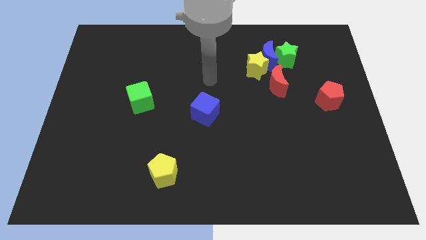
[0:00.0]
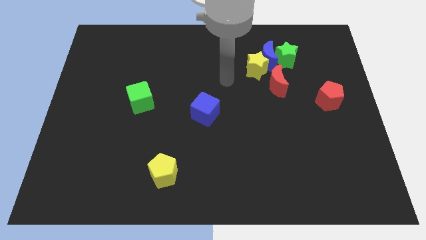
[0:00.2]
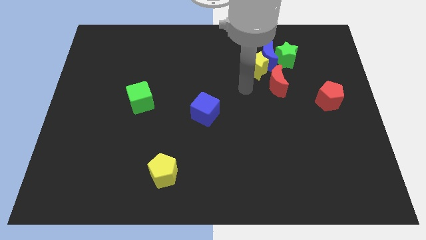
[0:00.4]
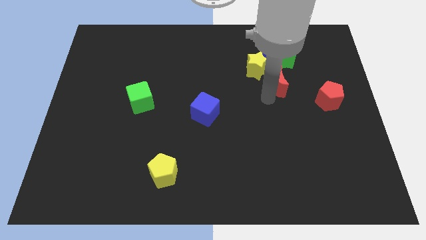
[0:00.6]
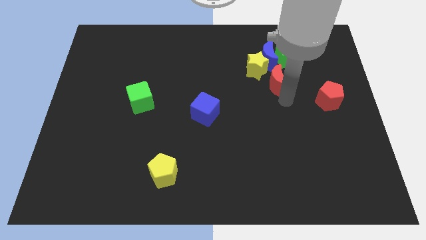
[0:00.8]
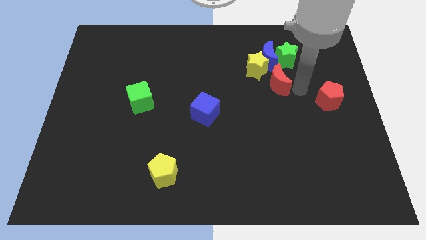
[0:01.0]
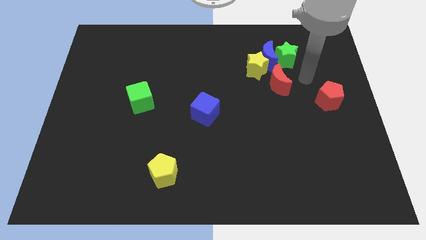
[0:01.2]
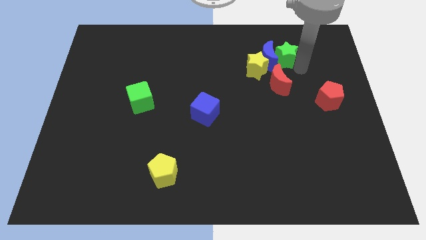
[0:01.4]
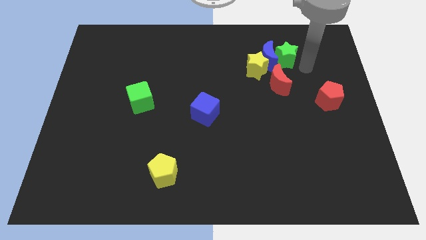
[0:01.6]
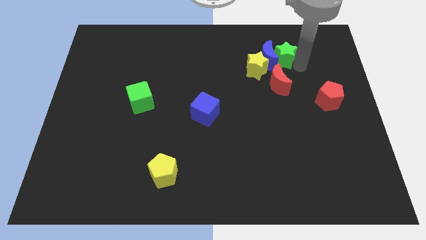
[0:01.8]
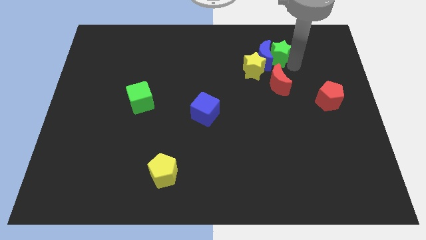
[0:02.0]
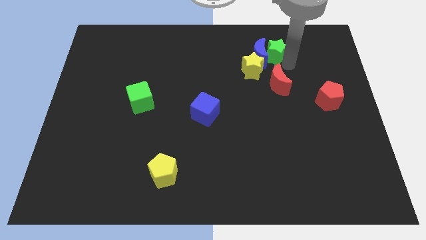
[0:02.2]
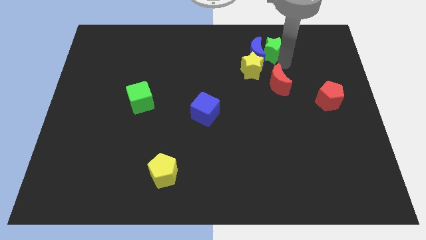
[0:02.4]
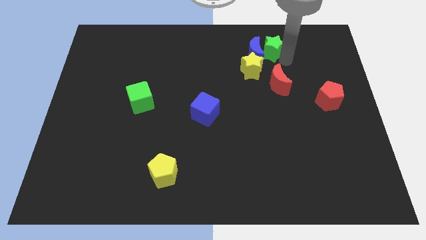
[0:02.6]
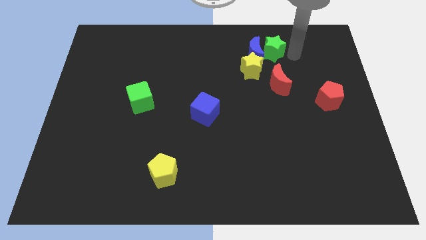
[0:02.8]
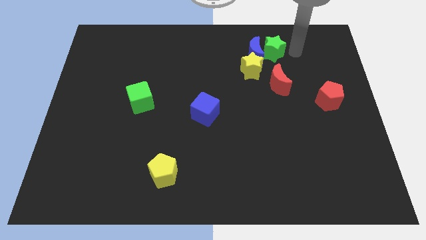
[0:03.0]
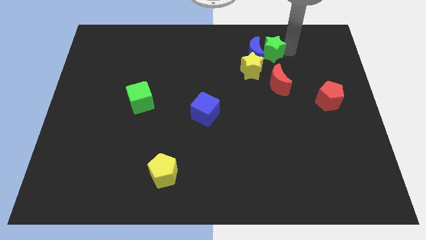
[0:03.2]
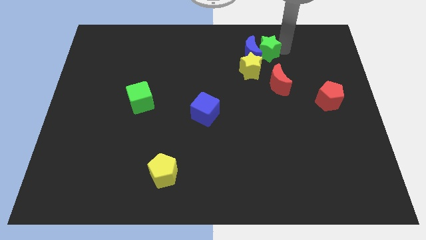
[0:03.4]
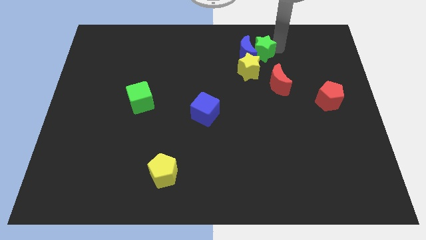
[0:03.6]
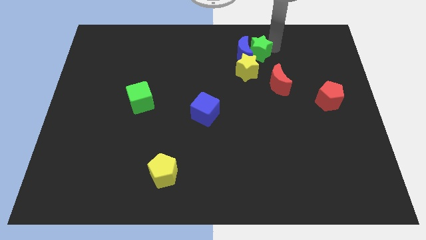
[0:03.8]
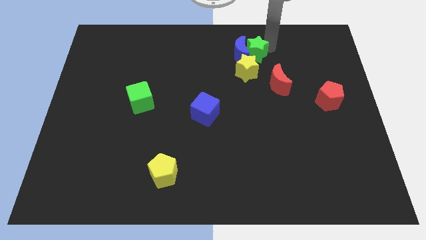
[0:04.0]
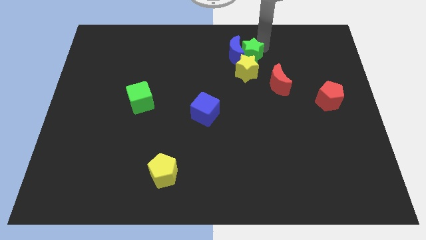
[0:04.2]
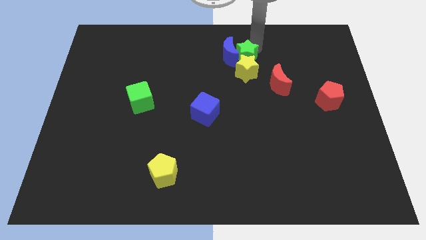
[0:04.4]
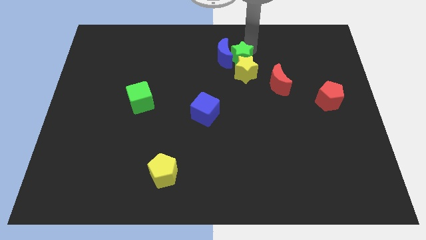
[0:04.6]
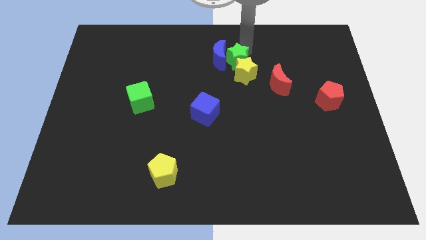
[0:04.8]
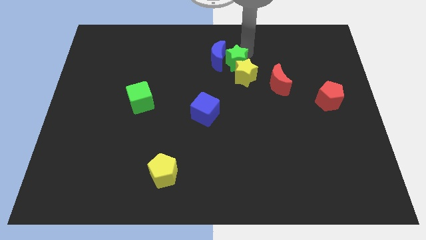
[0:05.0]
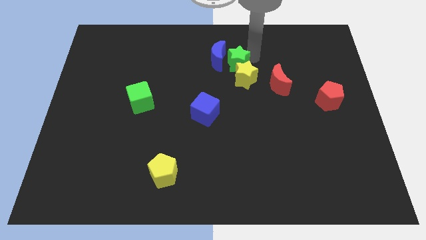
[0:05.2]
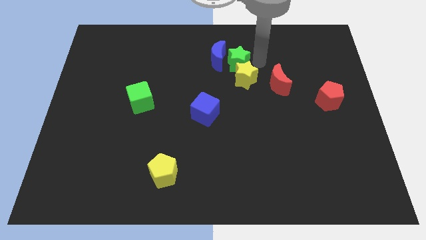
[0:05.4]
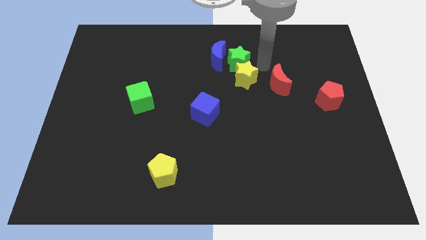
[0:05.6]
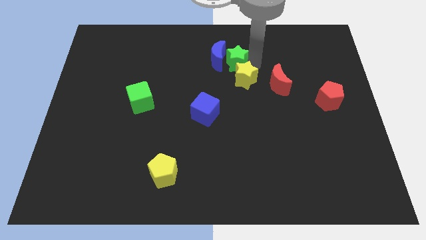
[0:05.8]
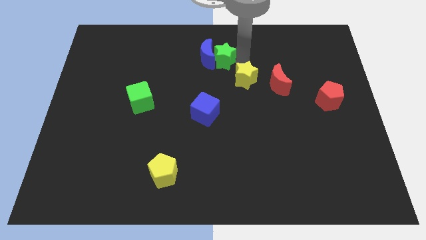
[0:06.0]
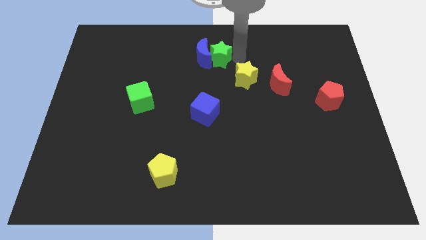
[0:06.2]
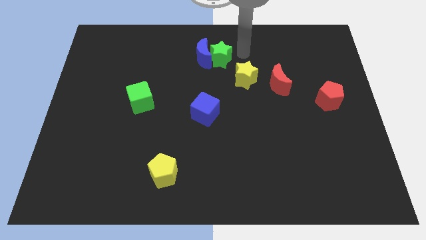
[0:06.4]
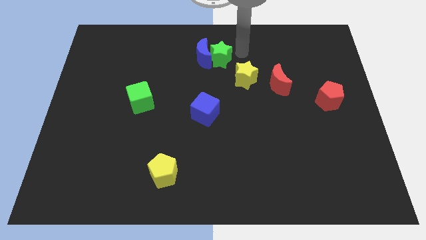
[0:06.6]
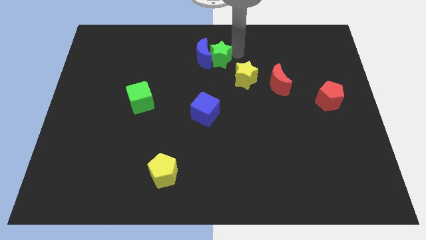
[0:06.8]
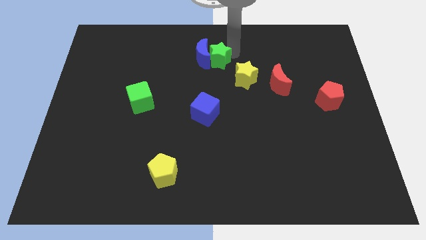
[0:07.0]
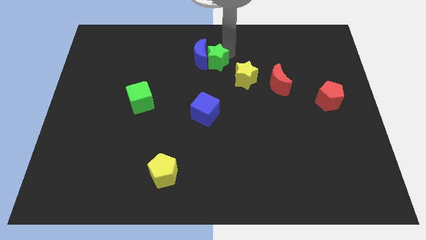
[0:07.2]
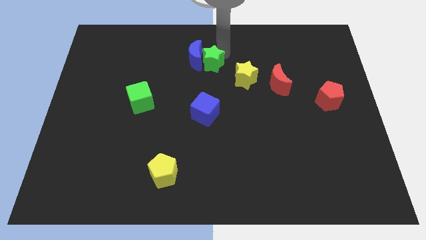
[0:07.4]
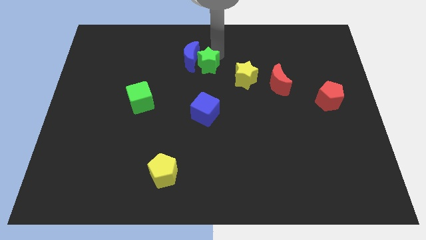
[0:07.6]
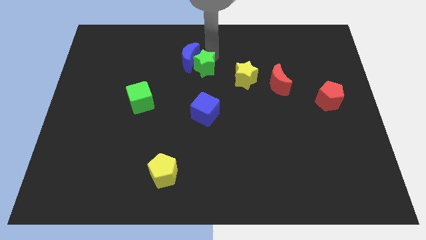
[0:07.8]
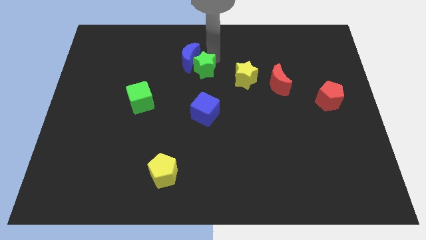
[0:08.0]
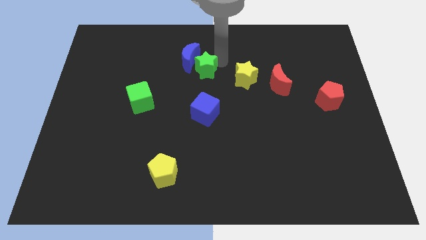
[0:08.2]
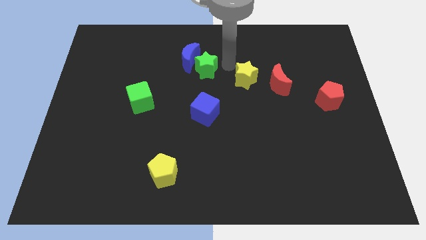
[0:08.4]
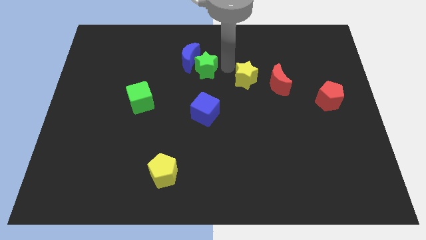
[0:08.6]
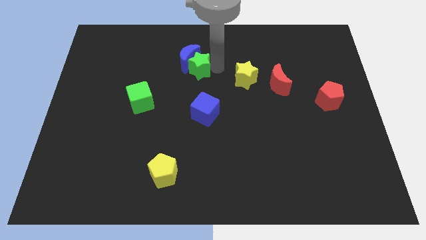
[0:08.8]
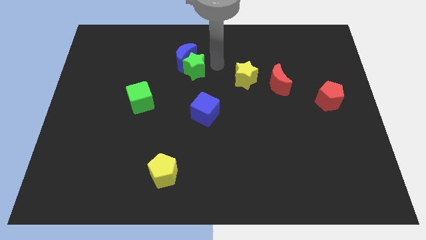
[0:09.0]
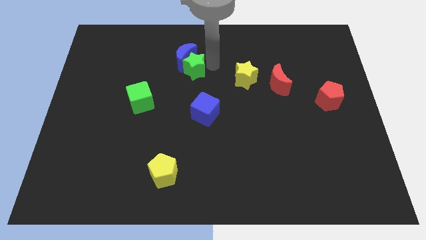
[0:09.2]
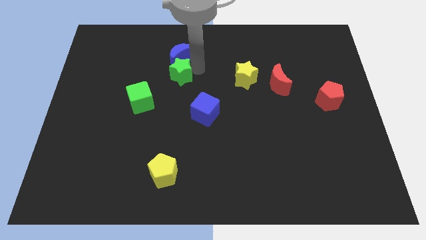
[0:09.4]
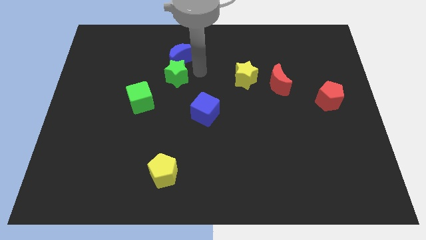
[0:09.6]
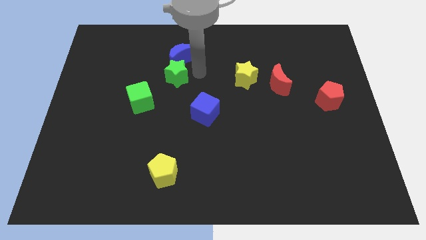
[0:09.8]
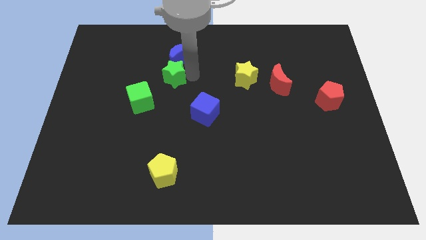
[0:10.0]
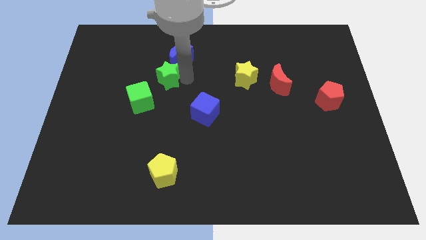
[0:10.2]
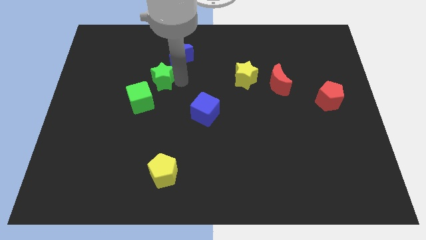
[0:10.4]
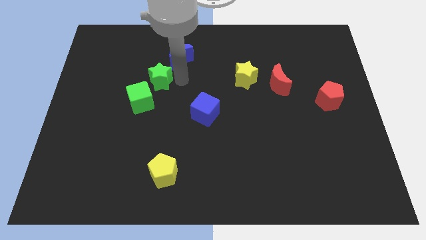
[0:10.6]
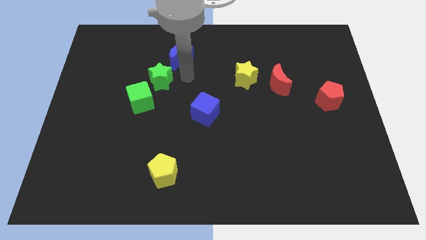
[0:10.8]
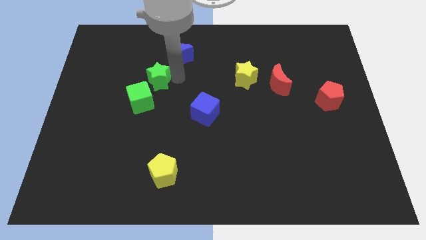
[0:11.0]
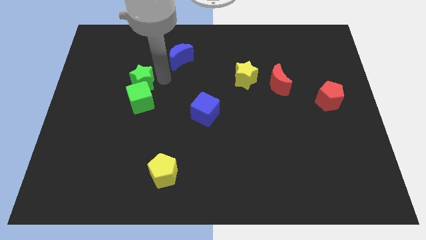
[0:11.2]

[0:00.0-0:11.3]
move the green star to the top left of the green cube

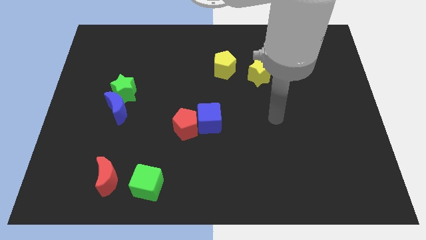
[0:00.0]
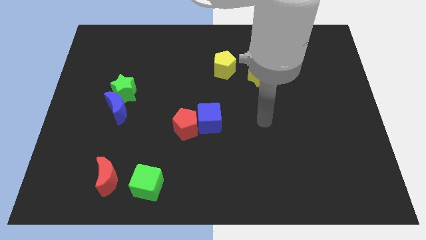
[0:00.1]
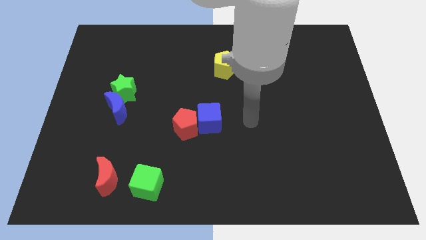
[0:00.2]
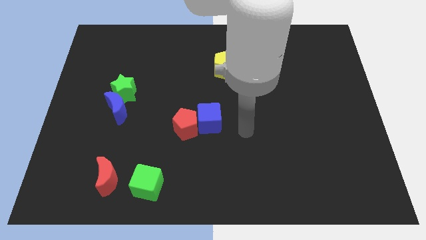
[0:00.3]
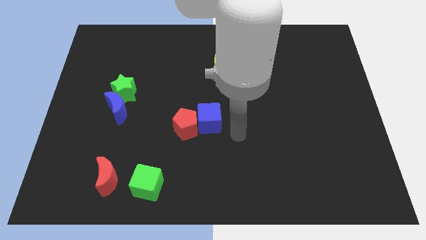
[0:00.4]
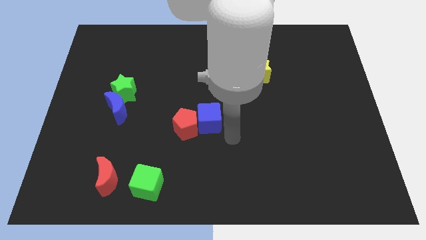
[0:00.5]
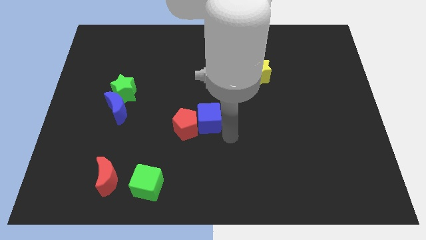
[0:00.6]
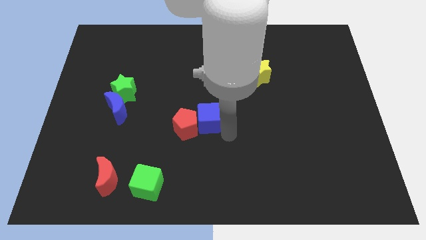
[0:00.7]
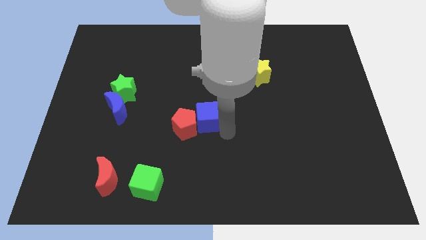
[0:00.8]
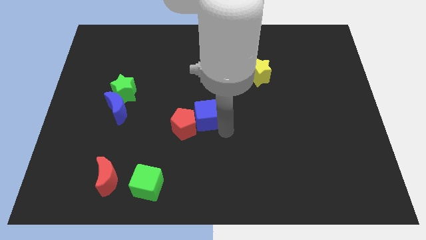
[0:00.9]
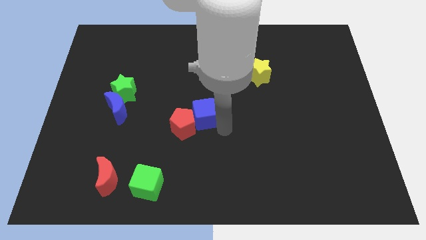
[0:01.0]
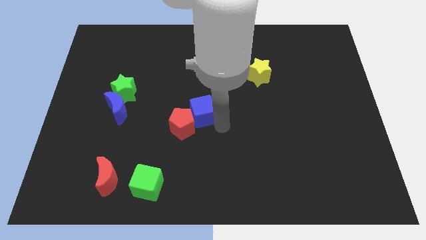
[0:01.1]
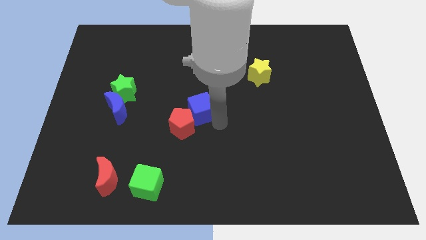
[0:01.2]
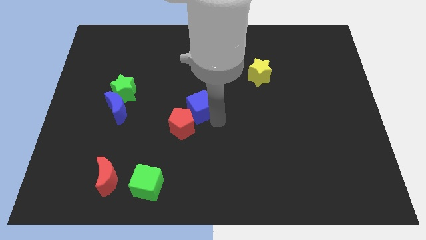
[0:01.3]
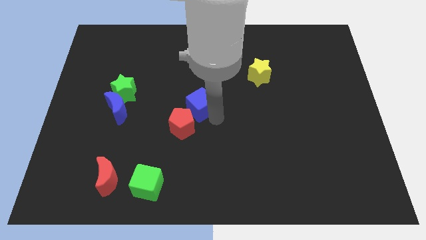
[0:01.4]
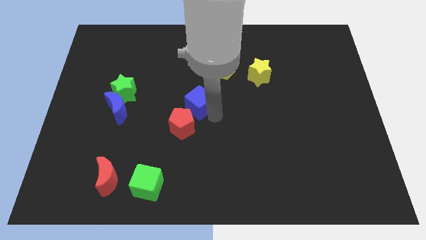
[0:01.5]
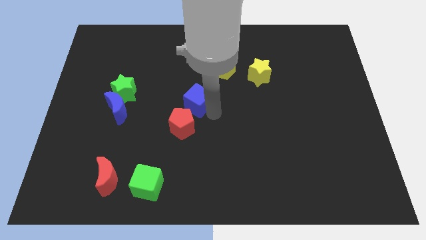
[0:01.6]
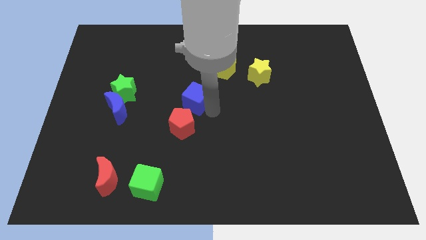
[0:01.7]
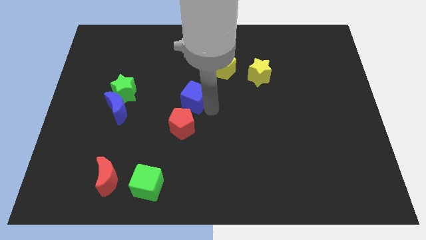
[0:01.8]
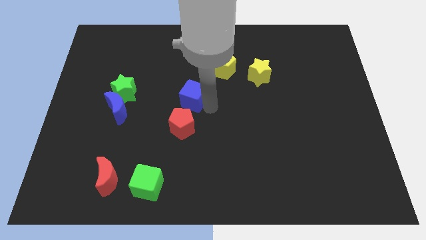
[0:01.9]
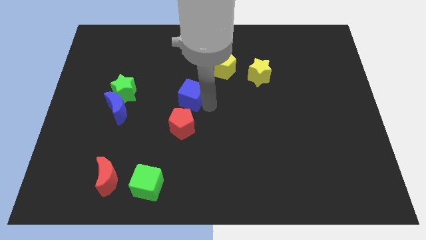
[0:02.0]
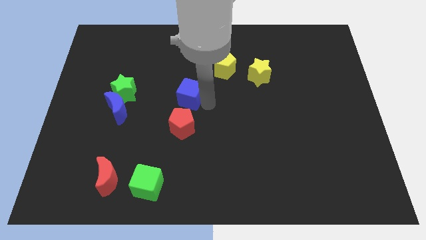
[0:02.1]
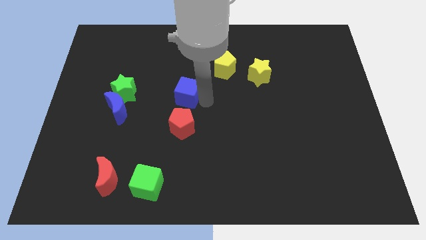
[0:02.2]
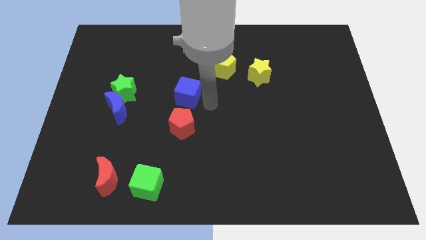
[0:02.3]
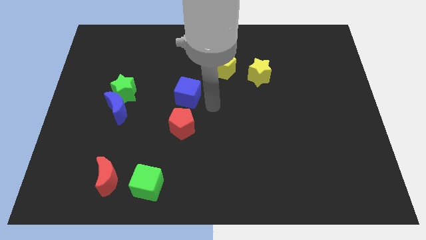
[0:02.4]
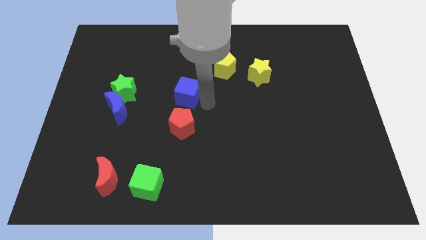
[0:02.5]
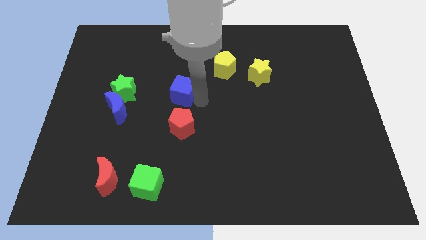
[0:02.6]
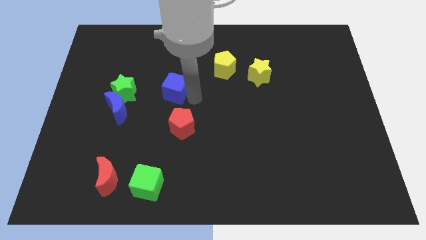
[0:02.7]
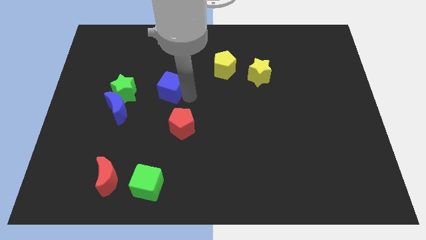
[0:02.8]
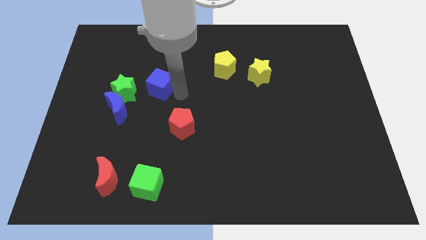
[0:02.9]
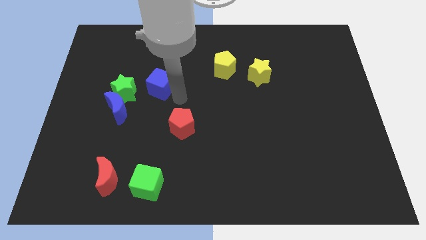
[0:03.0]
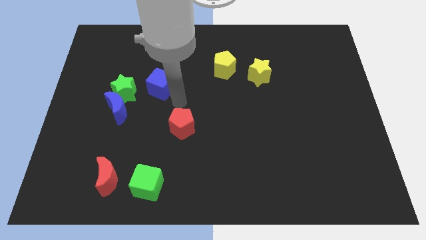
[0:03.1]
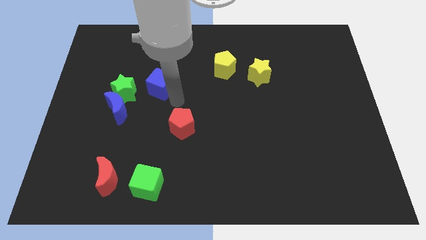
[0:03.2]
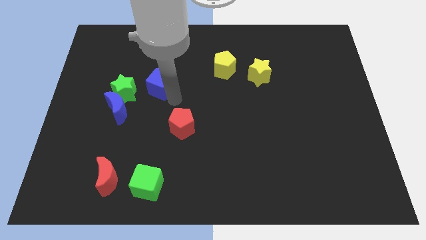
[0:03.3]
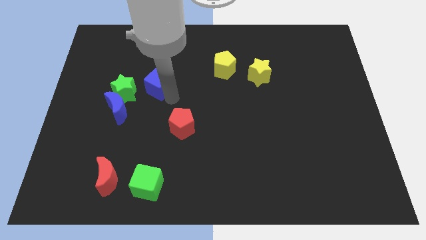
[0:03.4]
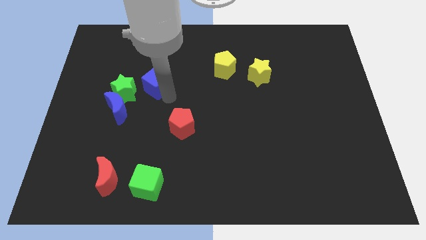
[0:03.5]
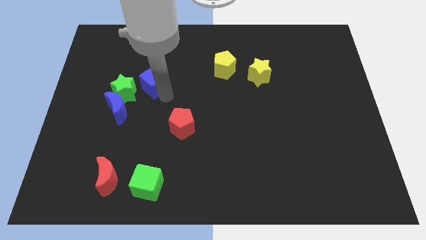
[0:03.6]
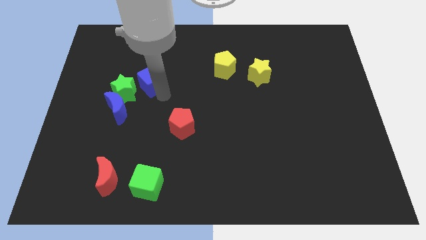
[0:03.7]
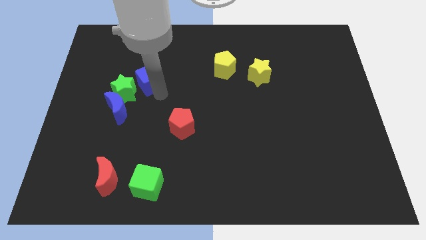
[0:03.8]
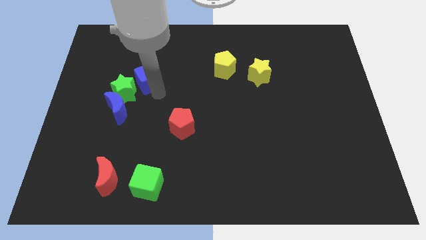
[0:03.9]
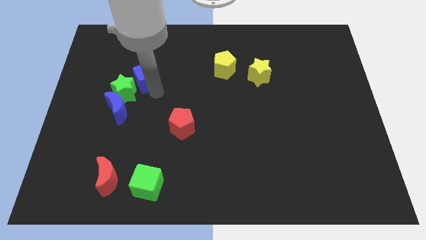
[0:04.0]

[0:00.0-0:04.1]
push the blue cube to the top of the green star
